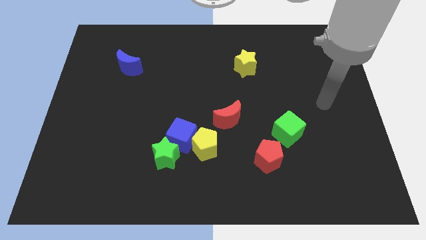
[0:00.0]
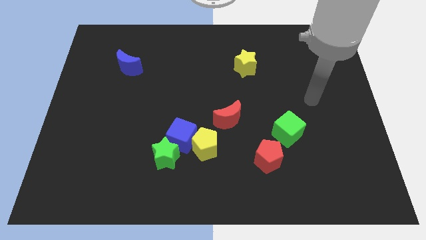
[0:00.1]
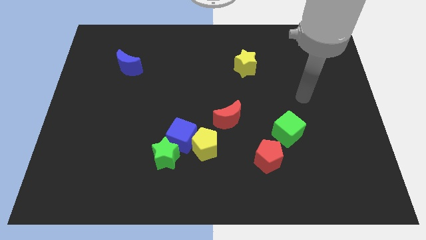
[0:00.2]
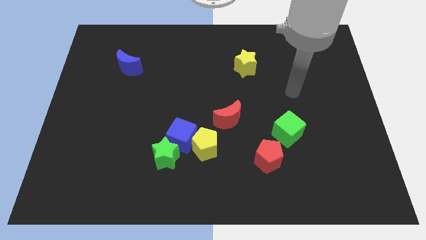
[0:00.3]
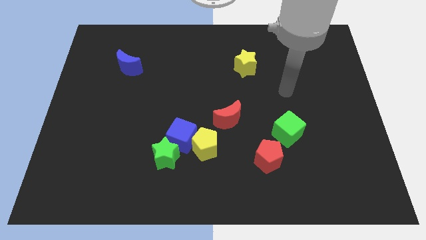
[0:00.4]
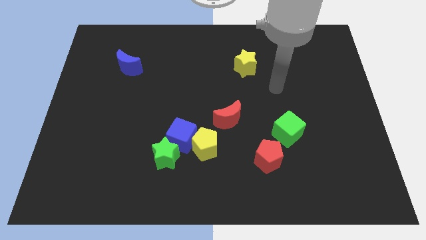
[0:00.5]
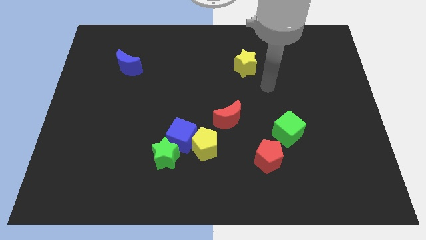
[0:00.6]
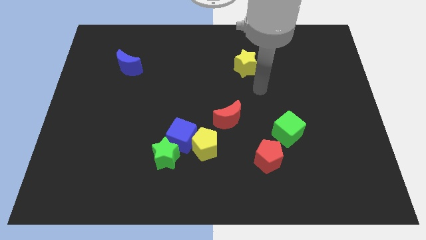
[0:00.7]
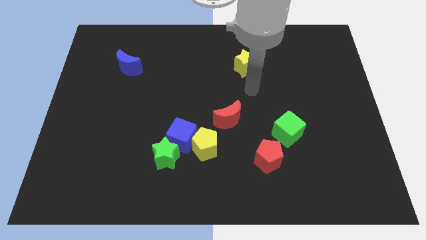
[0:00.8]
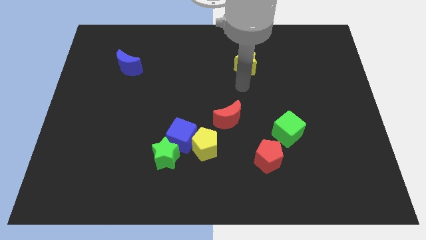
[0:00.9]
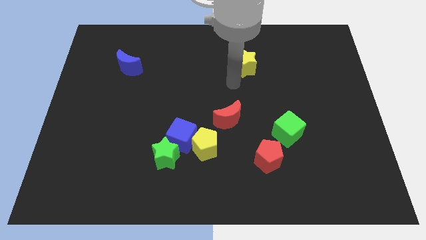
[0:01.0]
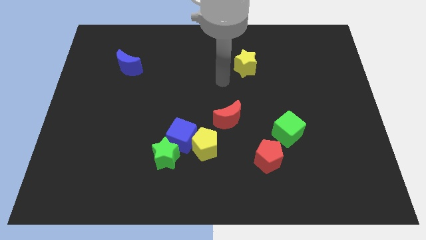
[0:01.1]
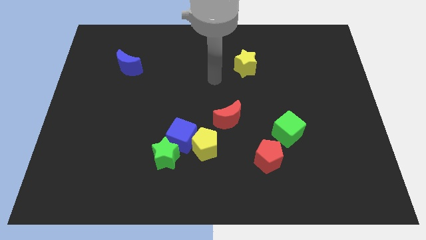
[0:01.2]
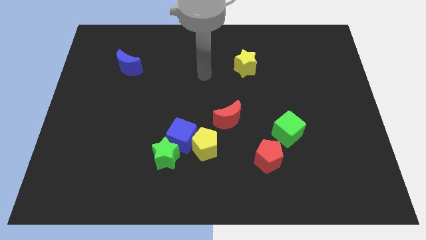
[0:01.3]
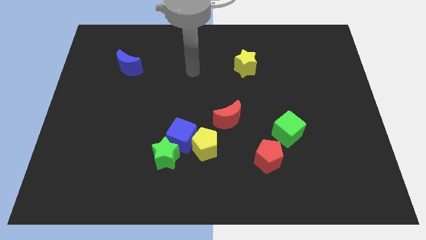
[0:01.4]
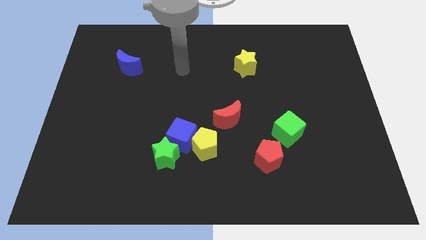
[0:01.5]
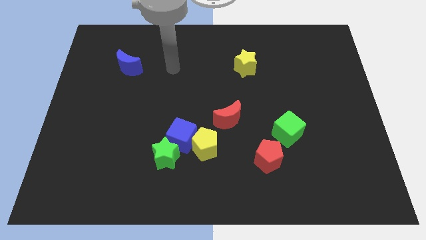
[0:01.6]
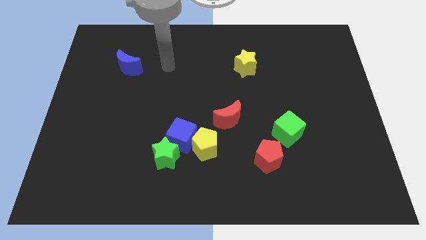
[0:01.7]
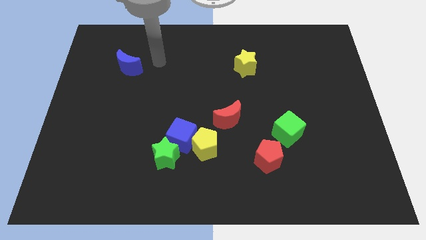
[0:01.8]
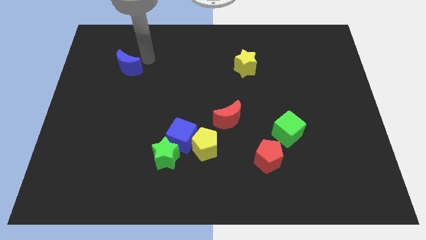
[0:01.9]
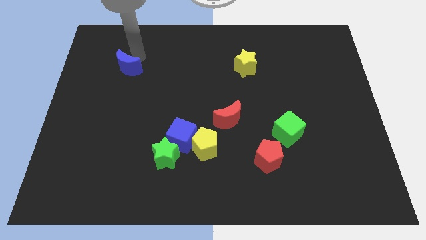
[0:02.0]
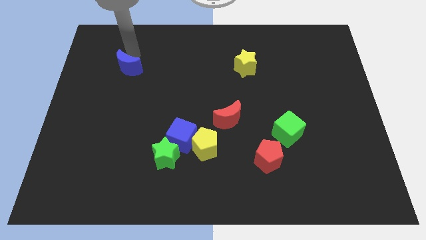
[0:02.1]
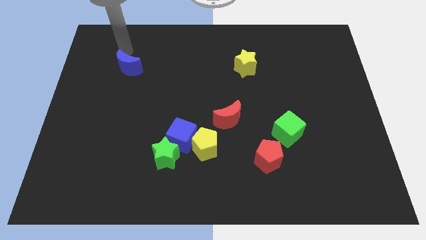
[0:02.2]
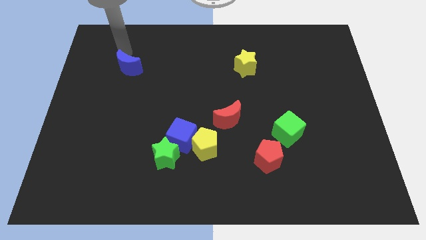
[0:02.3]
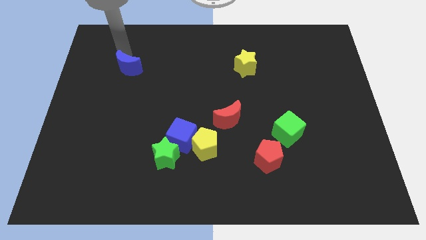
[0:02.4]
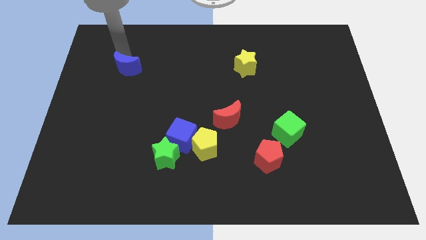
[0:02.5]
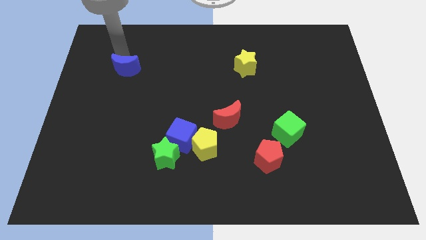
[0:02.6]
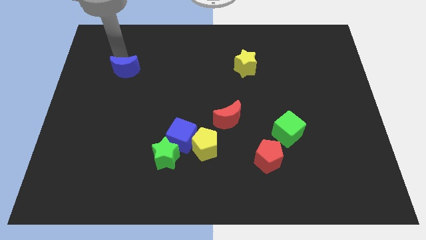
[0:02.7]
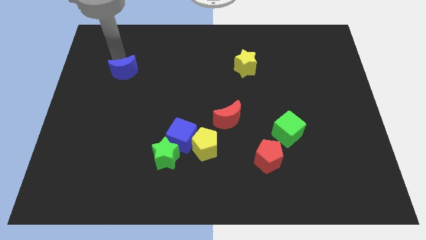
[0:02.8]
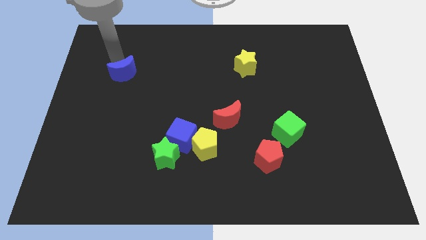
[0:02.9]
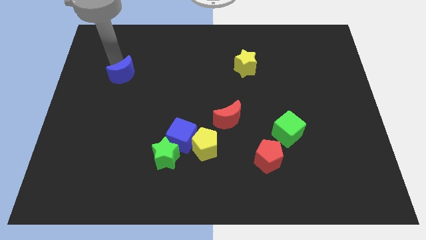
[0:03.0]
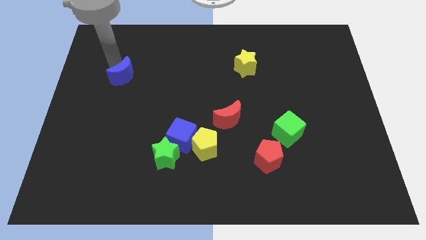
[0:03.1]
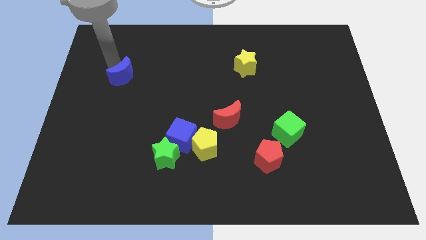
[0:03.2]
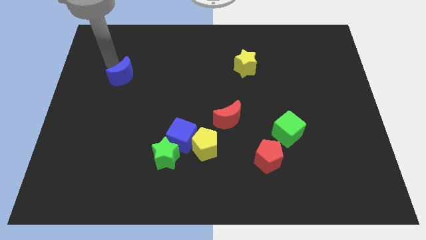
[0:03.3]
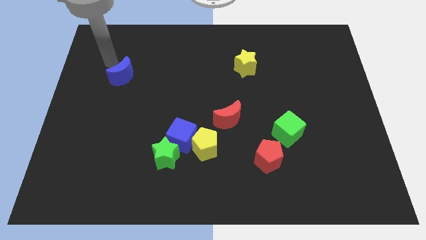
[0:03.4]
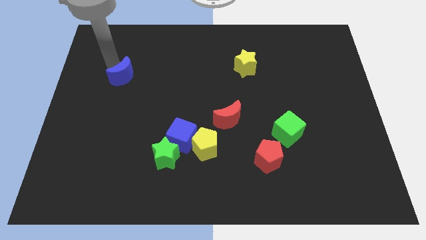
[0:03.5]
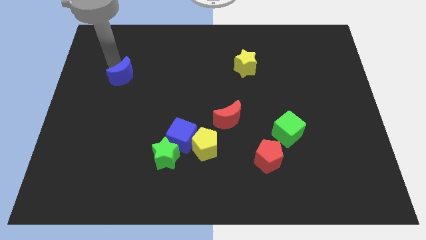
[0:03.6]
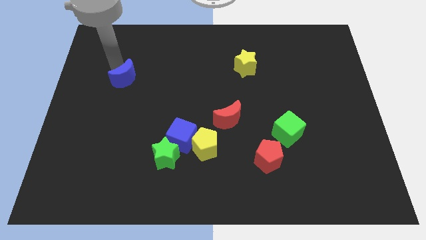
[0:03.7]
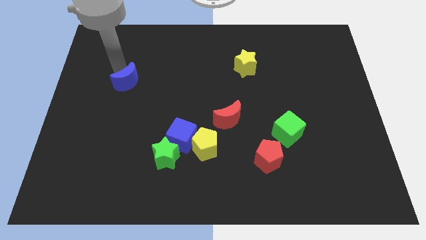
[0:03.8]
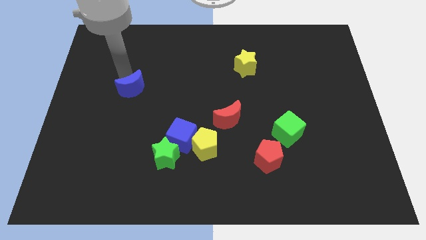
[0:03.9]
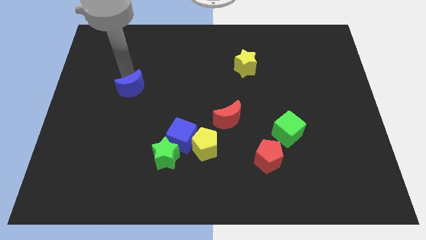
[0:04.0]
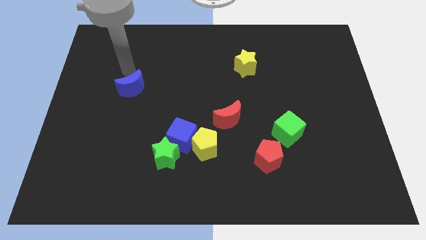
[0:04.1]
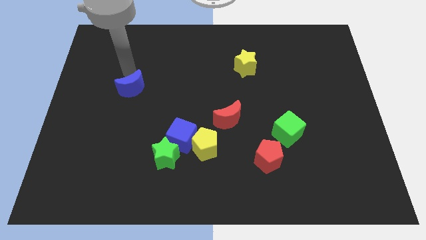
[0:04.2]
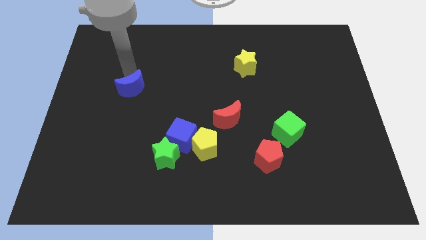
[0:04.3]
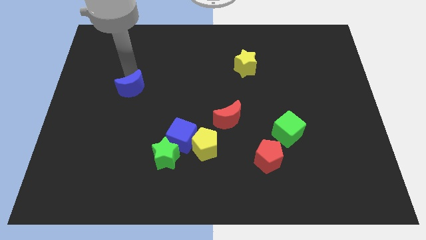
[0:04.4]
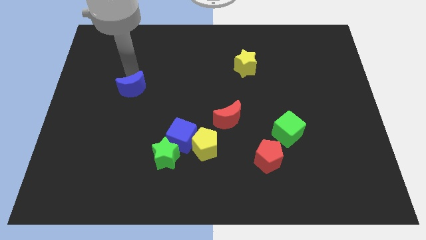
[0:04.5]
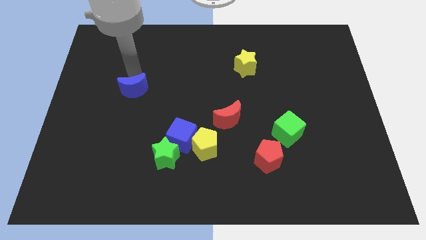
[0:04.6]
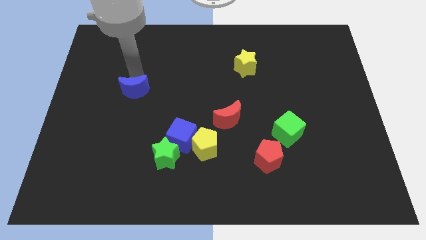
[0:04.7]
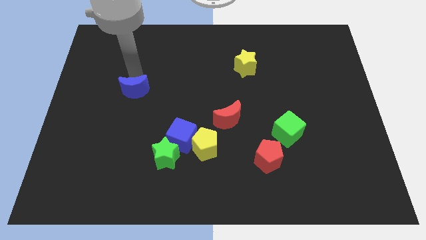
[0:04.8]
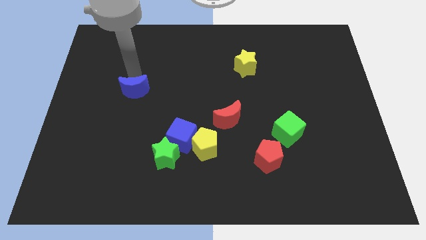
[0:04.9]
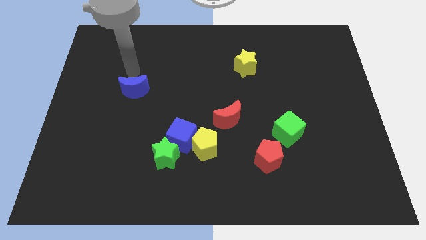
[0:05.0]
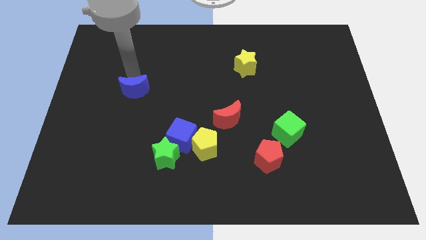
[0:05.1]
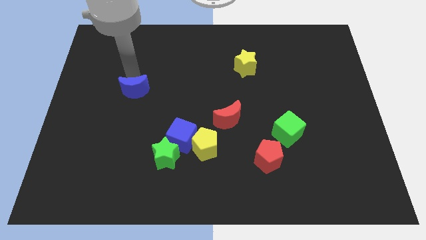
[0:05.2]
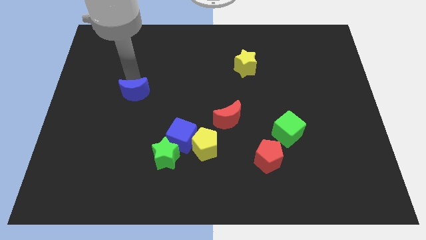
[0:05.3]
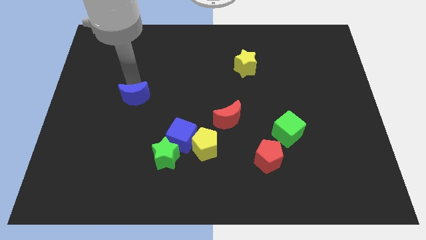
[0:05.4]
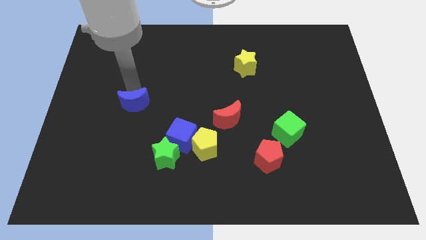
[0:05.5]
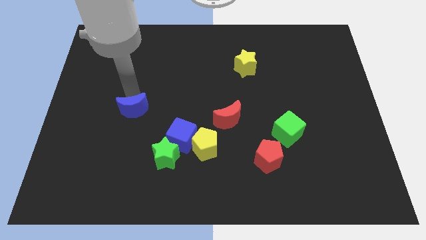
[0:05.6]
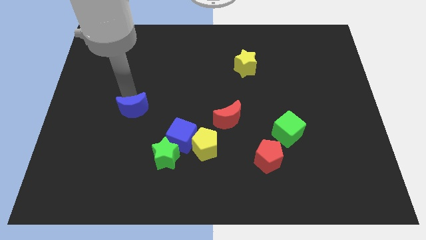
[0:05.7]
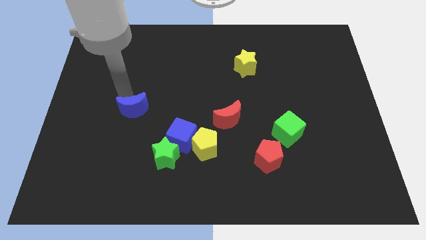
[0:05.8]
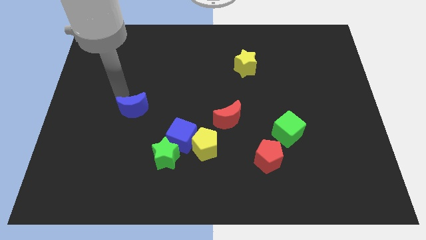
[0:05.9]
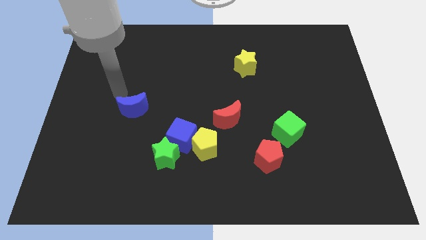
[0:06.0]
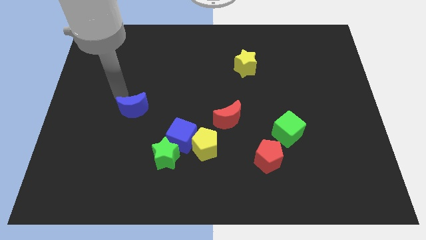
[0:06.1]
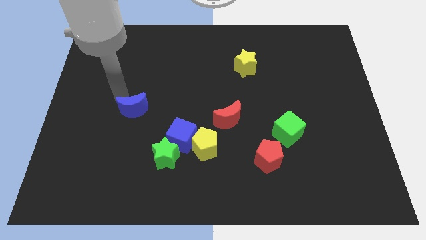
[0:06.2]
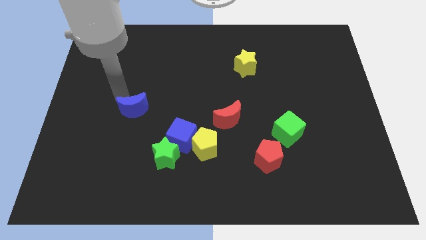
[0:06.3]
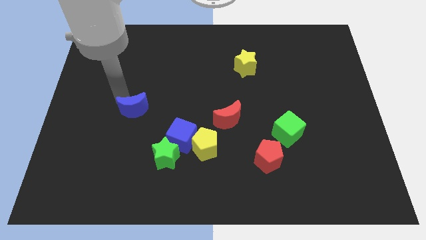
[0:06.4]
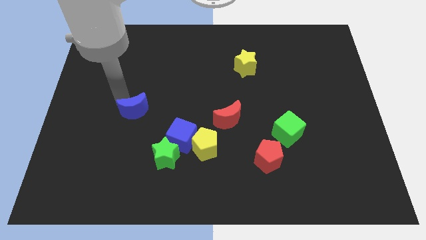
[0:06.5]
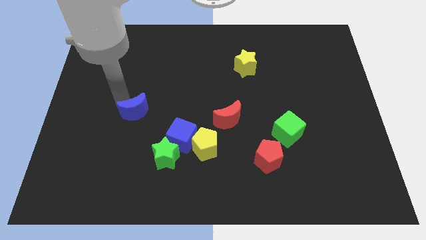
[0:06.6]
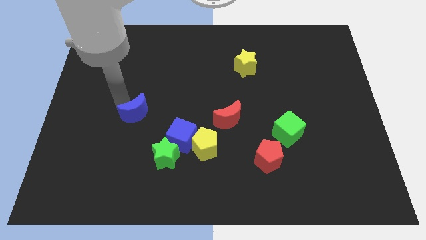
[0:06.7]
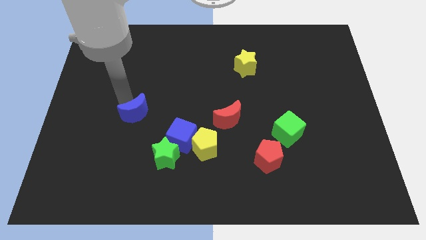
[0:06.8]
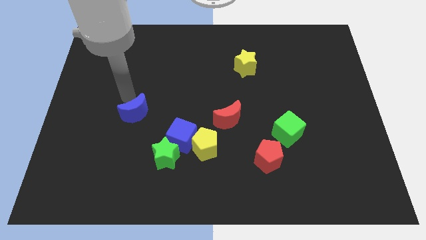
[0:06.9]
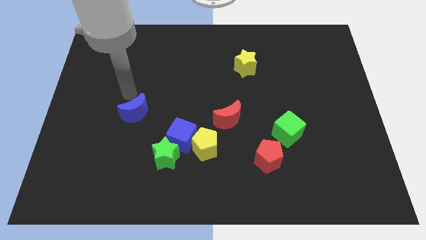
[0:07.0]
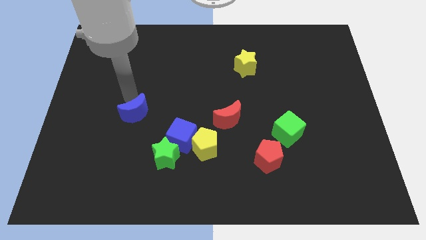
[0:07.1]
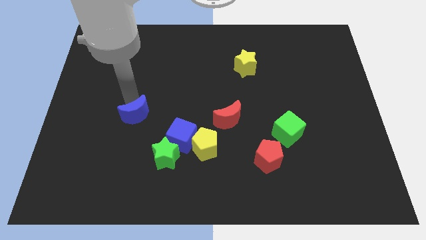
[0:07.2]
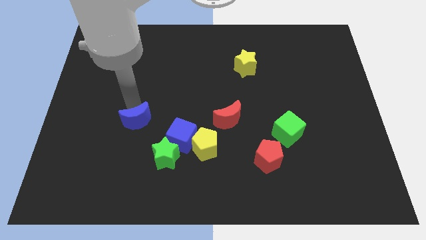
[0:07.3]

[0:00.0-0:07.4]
push the blue moon to the top left of the green star
